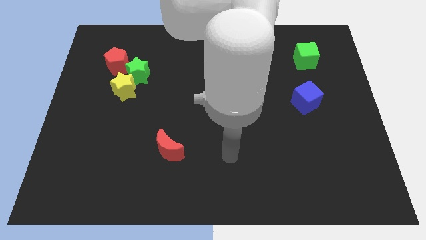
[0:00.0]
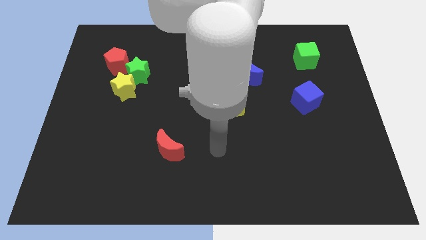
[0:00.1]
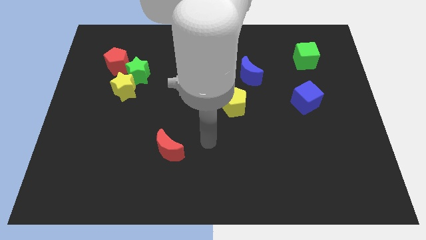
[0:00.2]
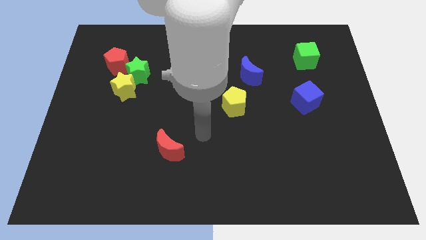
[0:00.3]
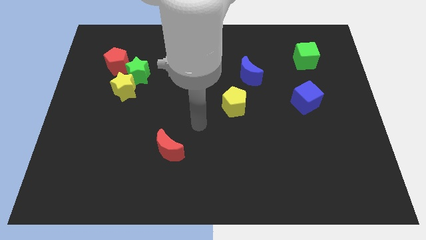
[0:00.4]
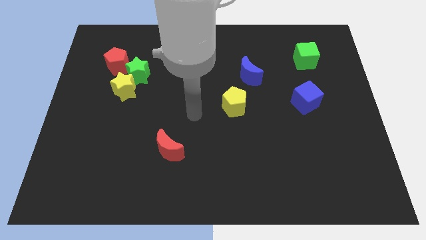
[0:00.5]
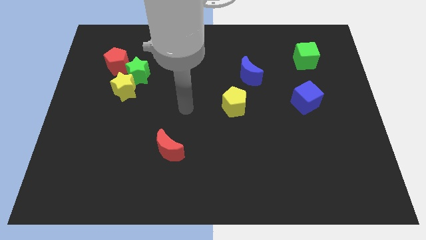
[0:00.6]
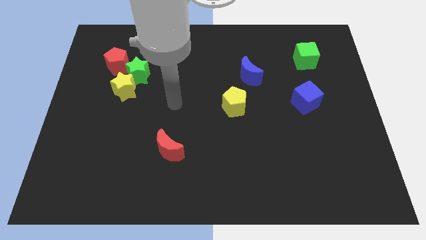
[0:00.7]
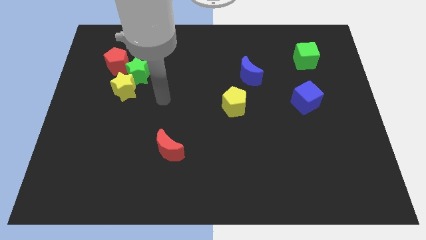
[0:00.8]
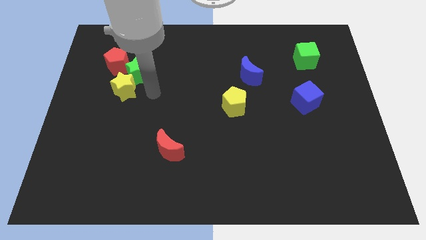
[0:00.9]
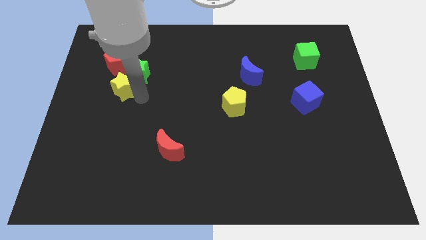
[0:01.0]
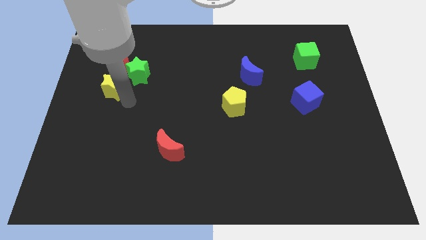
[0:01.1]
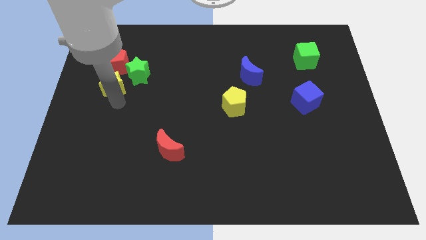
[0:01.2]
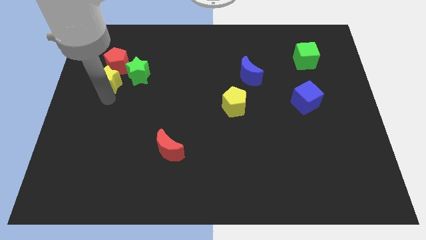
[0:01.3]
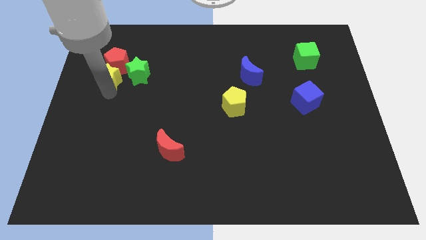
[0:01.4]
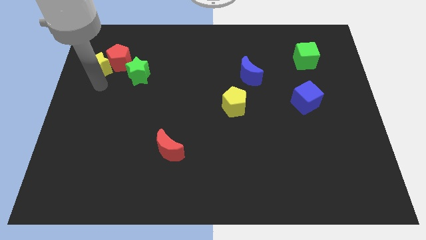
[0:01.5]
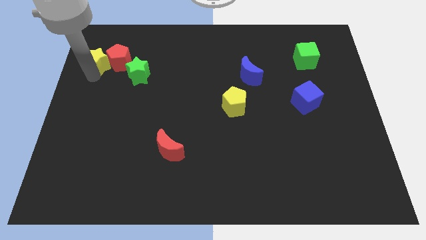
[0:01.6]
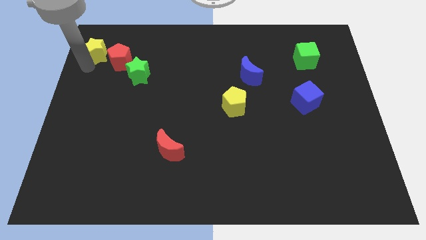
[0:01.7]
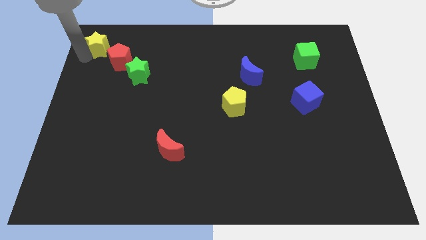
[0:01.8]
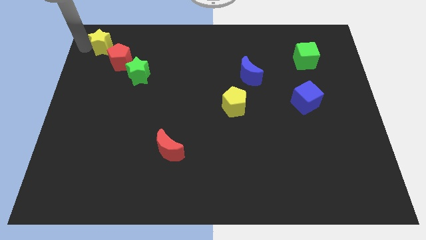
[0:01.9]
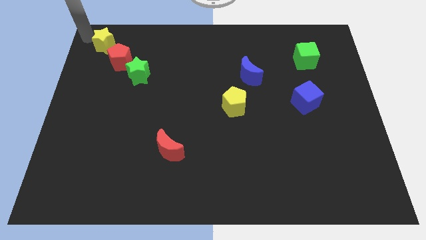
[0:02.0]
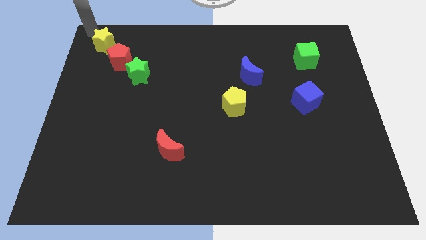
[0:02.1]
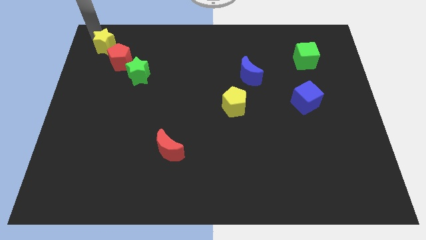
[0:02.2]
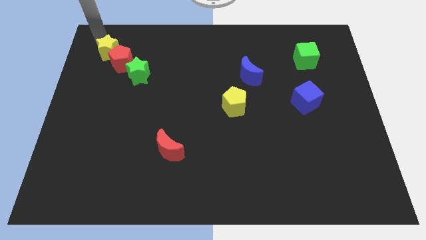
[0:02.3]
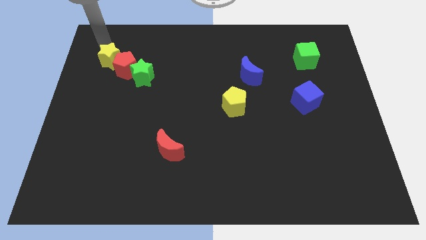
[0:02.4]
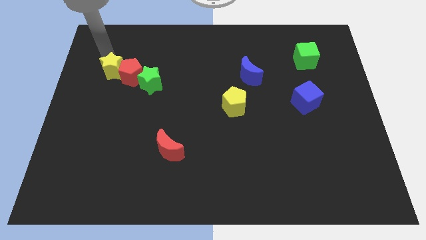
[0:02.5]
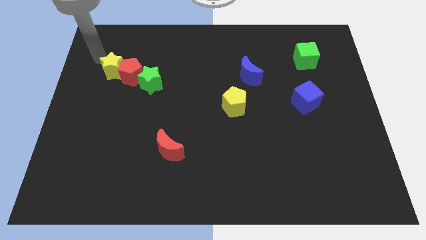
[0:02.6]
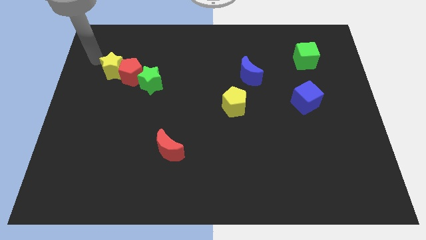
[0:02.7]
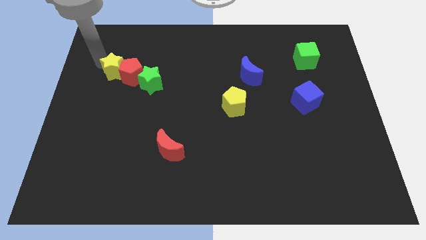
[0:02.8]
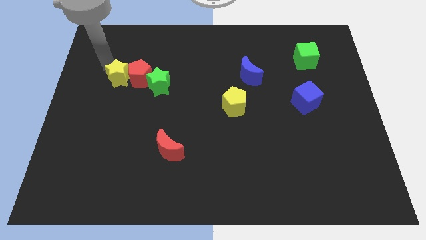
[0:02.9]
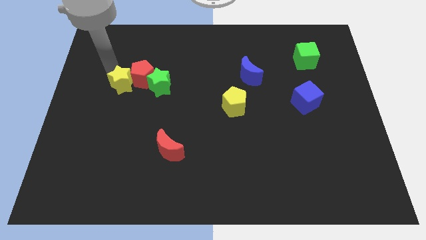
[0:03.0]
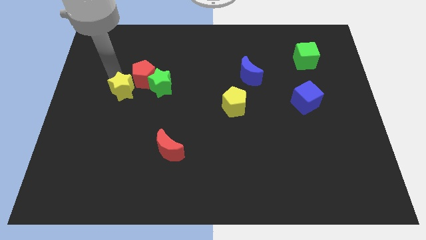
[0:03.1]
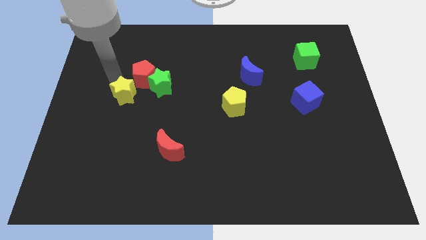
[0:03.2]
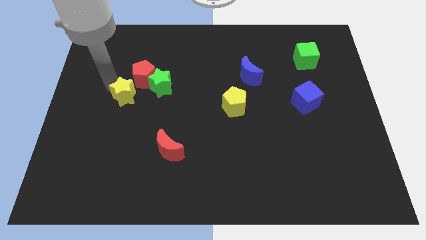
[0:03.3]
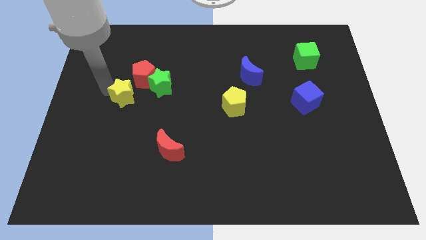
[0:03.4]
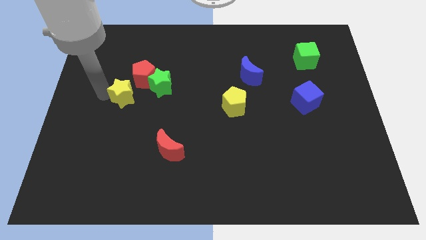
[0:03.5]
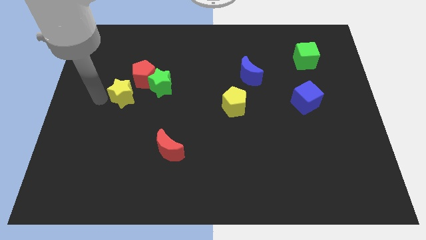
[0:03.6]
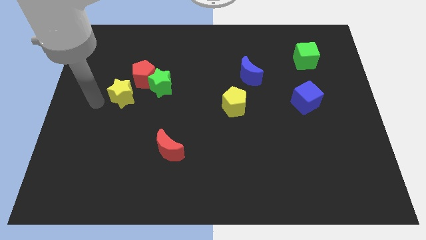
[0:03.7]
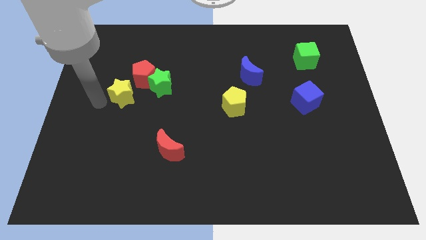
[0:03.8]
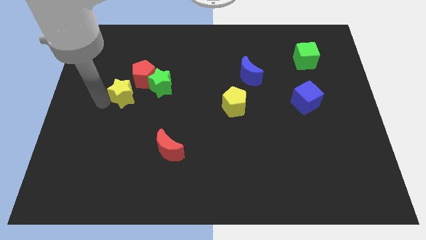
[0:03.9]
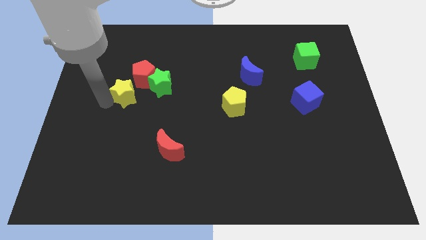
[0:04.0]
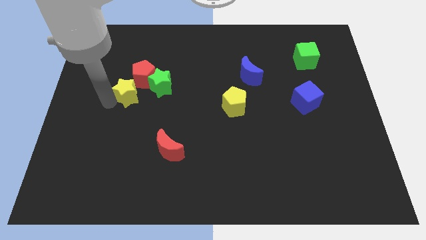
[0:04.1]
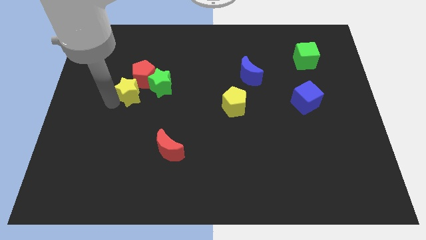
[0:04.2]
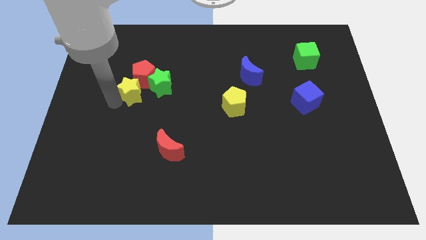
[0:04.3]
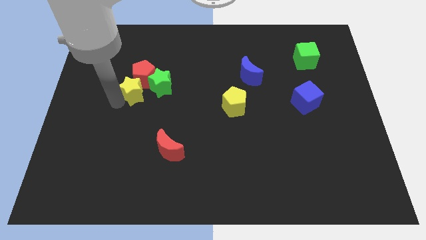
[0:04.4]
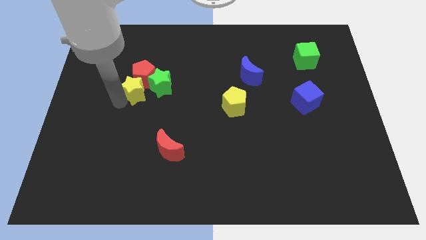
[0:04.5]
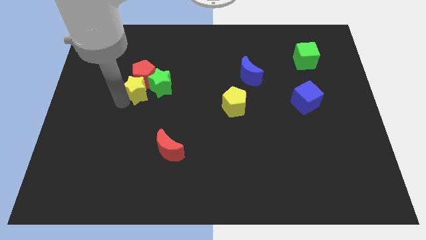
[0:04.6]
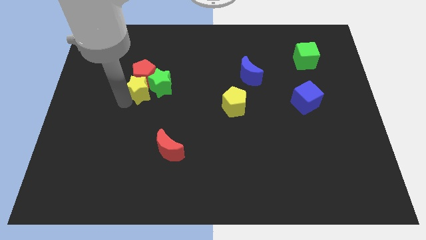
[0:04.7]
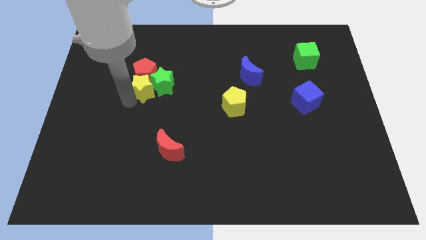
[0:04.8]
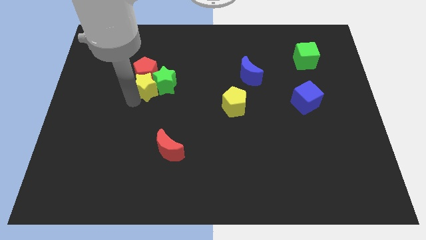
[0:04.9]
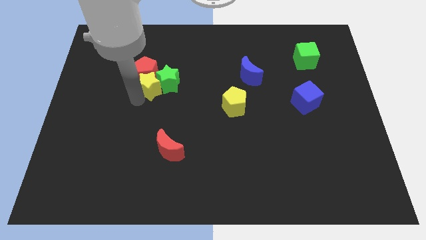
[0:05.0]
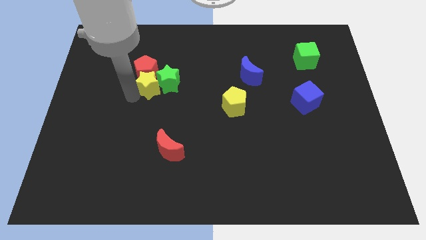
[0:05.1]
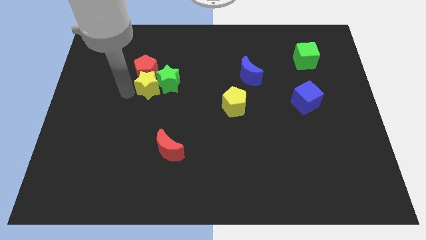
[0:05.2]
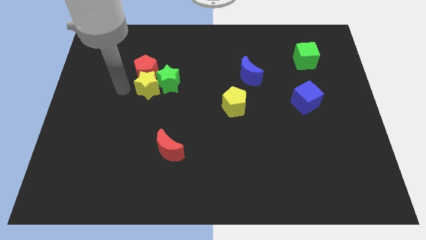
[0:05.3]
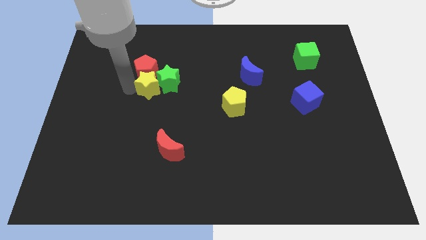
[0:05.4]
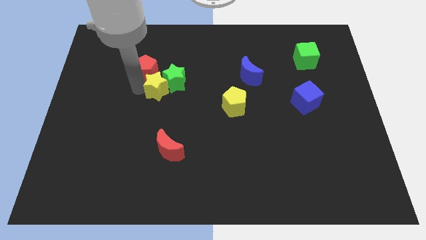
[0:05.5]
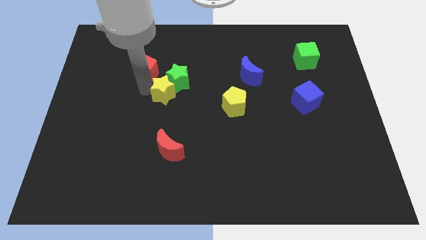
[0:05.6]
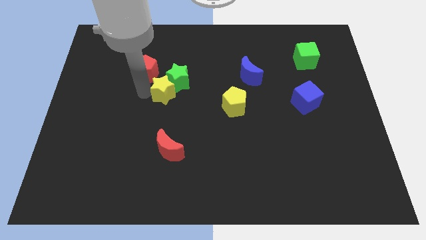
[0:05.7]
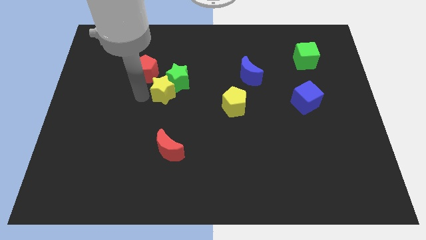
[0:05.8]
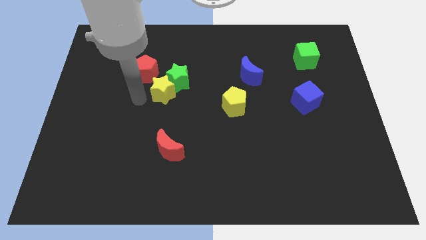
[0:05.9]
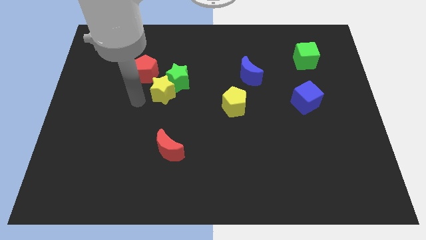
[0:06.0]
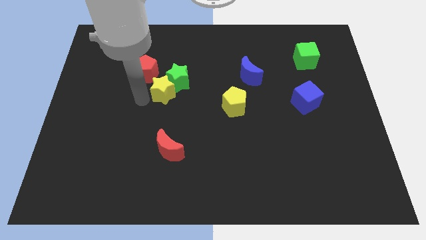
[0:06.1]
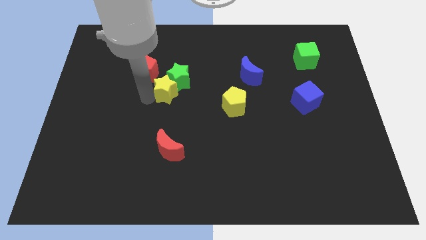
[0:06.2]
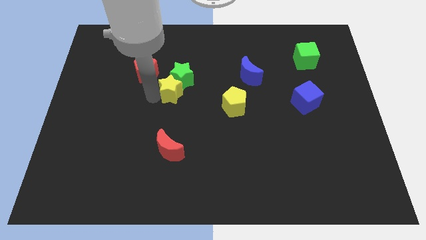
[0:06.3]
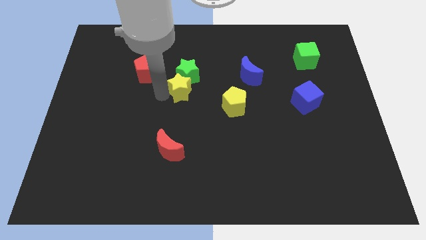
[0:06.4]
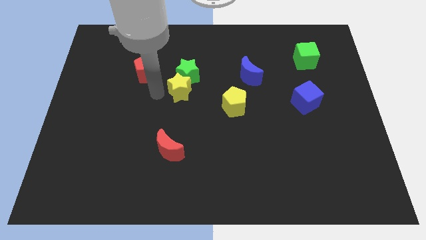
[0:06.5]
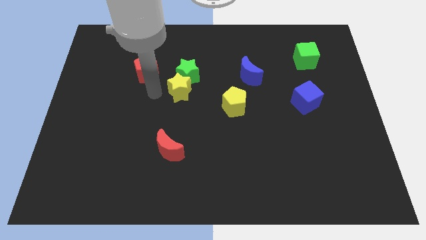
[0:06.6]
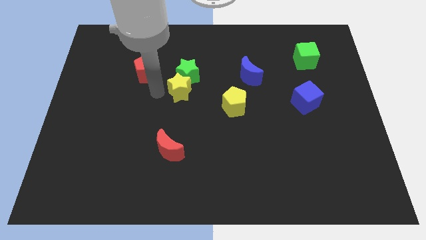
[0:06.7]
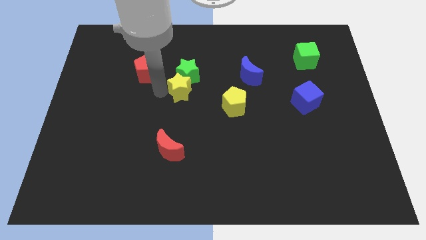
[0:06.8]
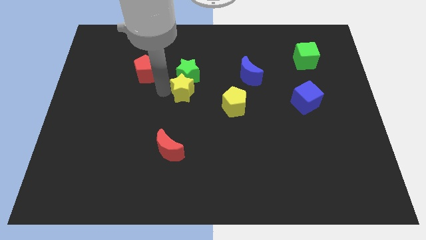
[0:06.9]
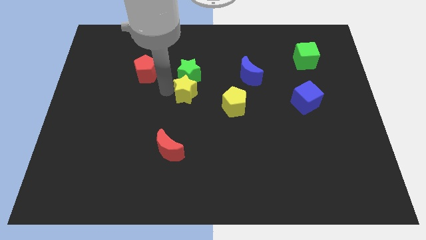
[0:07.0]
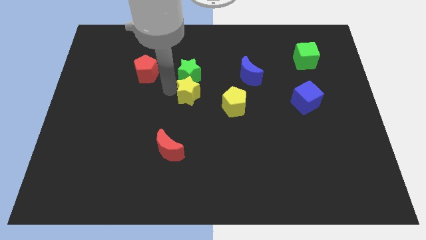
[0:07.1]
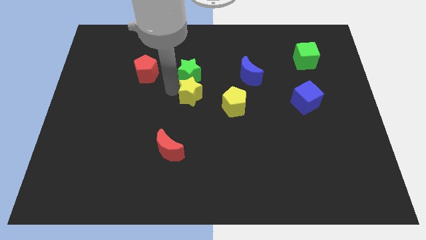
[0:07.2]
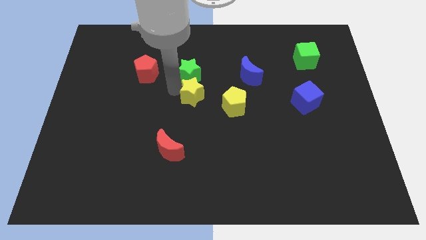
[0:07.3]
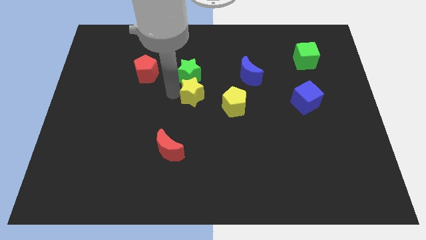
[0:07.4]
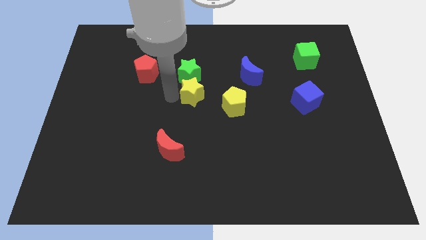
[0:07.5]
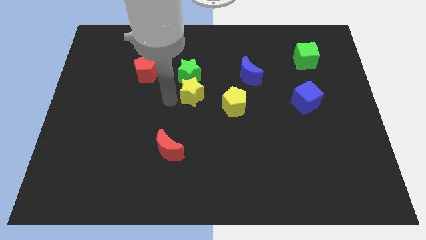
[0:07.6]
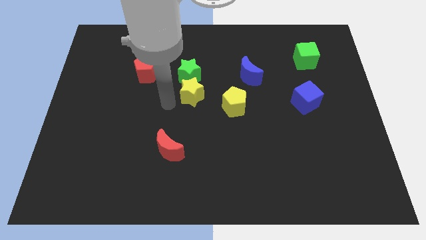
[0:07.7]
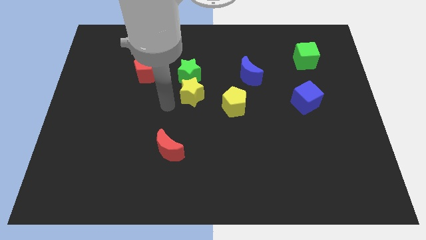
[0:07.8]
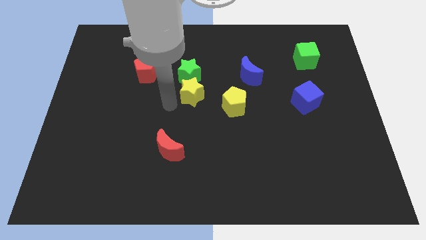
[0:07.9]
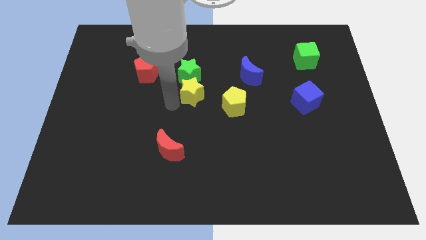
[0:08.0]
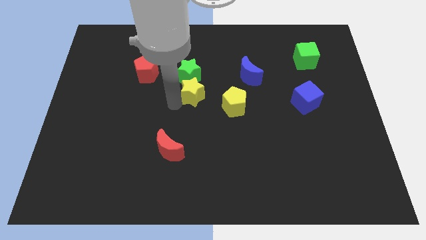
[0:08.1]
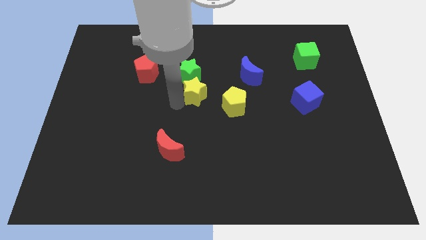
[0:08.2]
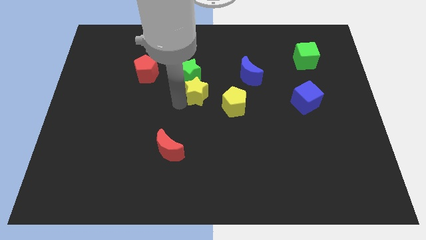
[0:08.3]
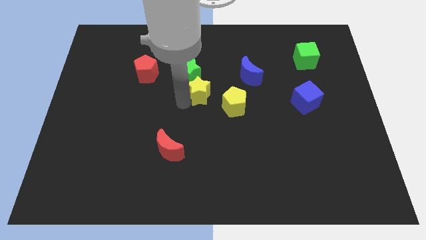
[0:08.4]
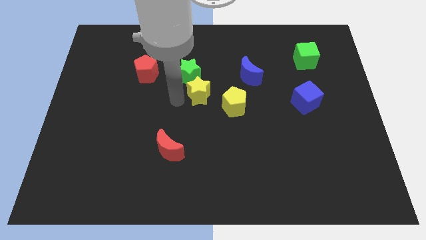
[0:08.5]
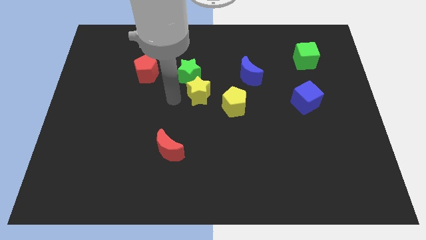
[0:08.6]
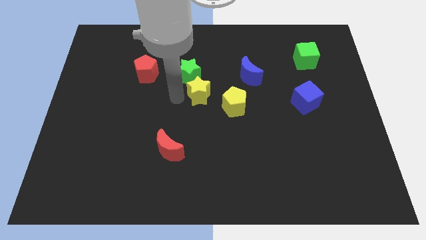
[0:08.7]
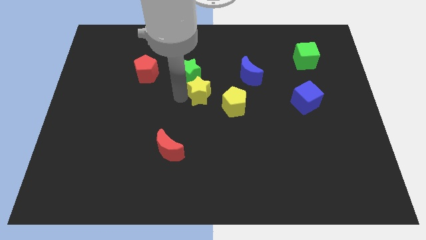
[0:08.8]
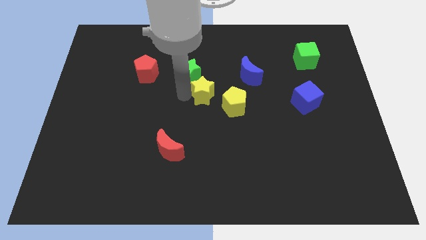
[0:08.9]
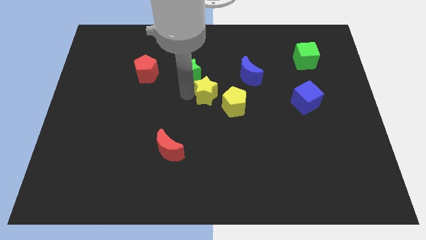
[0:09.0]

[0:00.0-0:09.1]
slide the yellow star right
